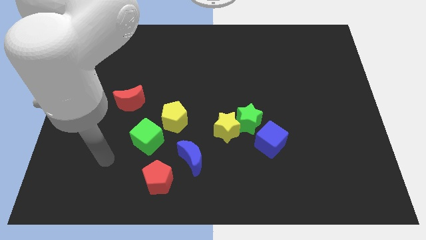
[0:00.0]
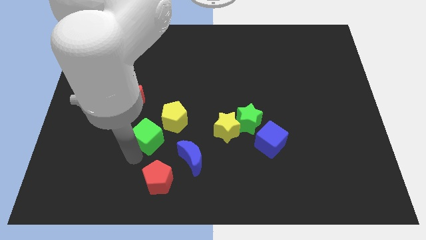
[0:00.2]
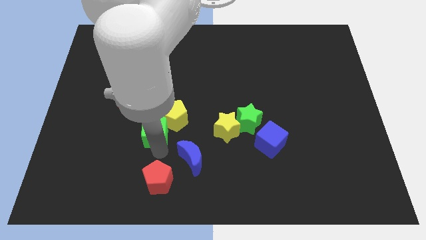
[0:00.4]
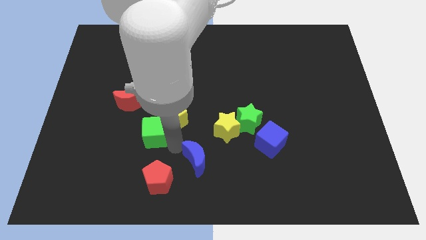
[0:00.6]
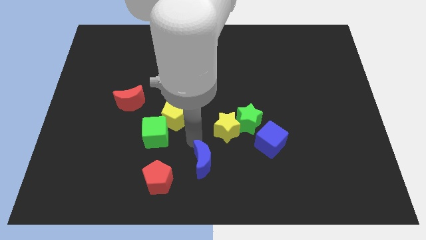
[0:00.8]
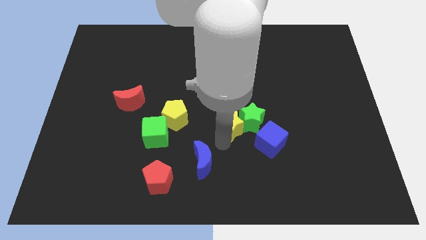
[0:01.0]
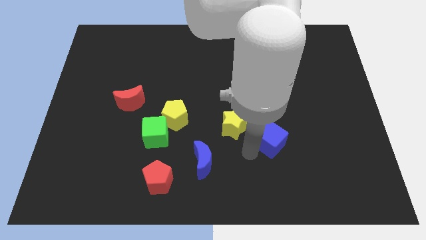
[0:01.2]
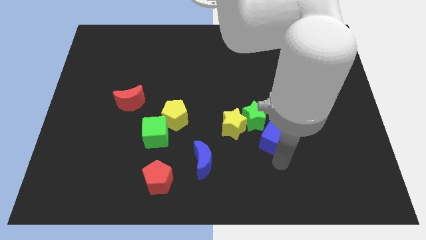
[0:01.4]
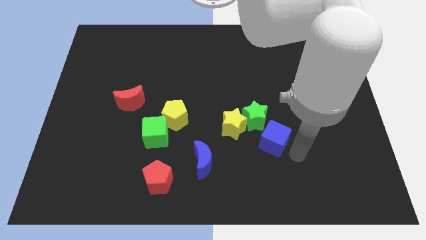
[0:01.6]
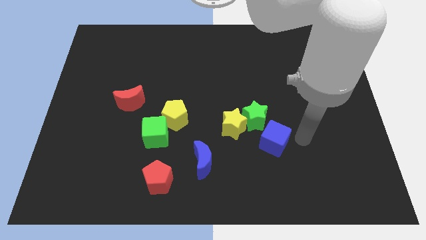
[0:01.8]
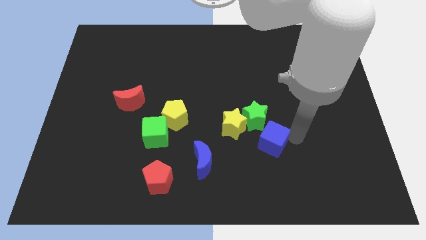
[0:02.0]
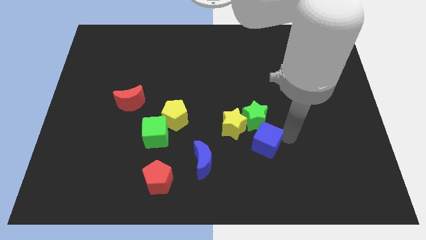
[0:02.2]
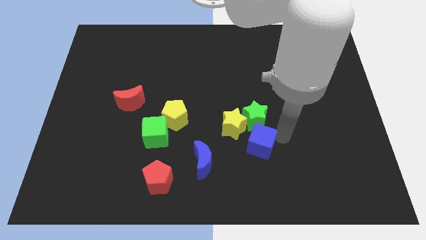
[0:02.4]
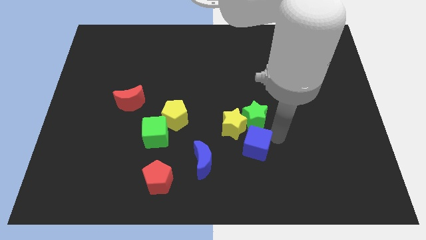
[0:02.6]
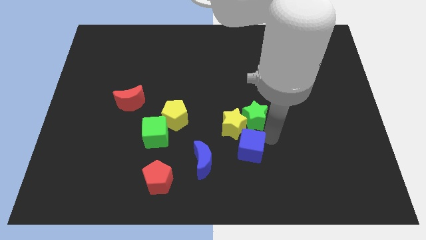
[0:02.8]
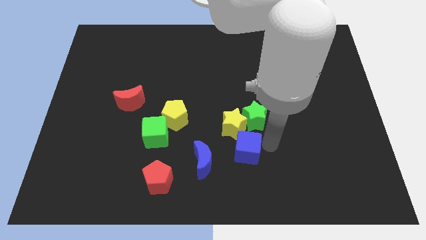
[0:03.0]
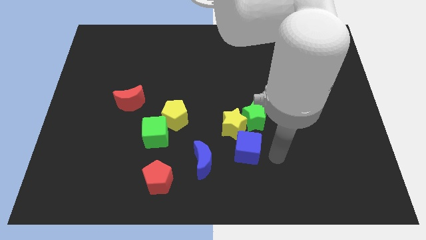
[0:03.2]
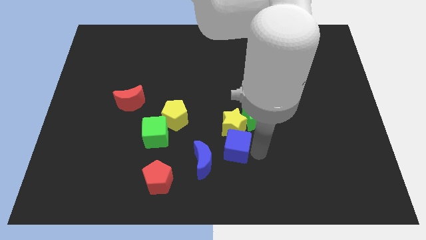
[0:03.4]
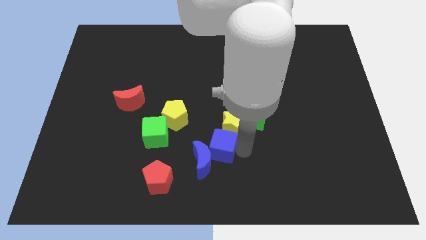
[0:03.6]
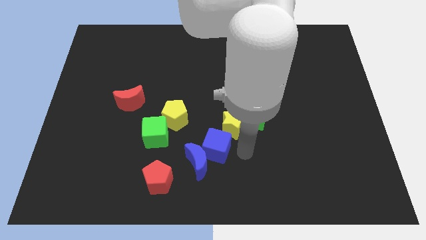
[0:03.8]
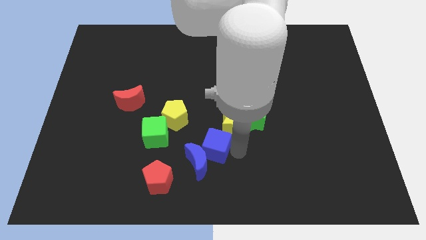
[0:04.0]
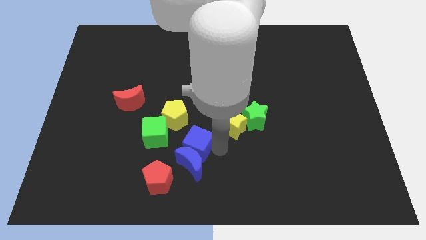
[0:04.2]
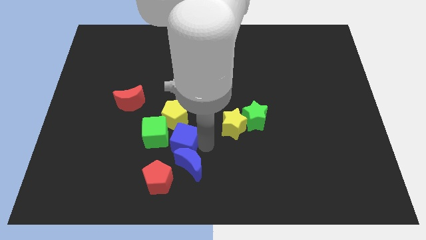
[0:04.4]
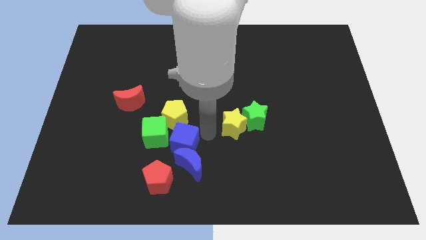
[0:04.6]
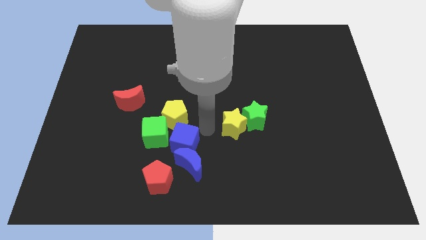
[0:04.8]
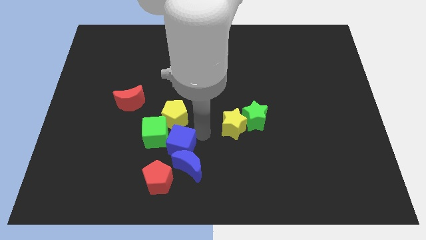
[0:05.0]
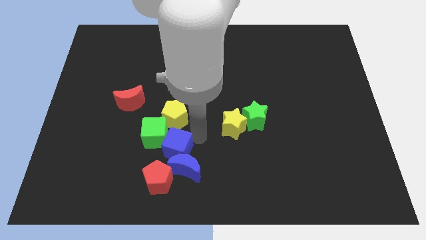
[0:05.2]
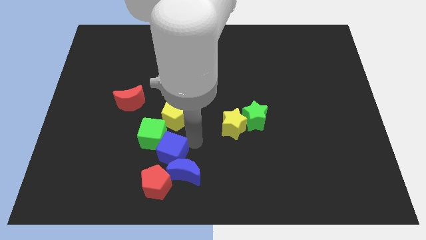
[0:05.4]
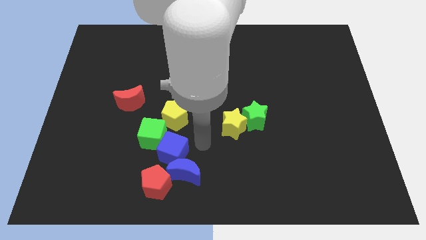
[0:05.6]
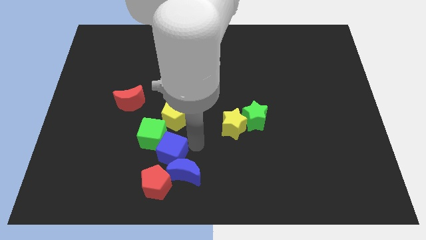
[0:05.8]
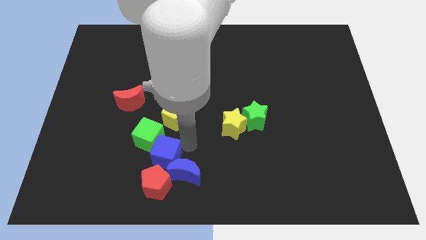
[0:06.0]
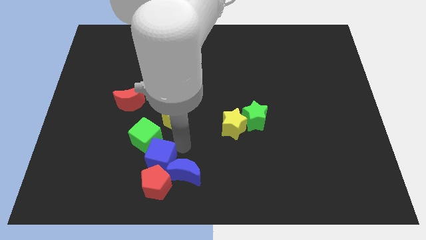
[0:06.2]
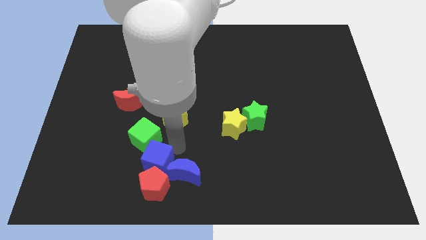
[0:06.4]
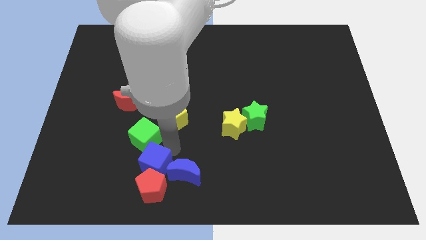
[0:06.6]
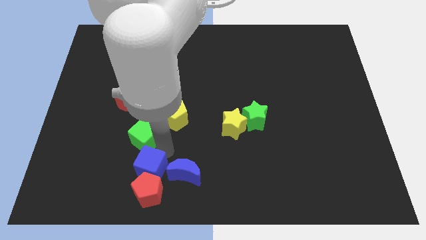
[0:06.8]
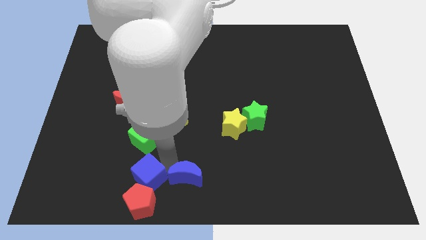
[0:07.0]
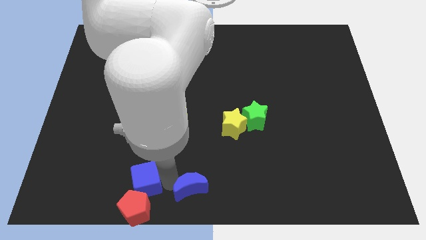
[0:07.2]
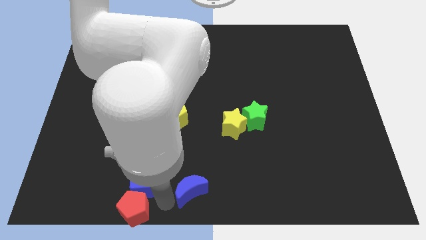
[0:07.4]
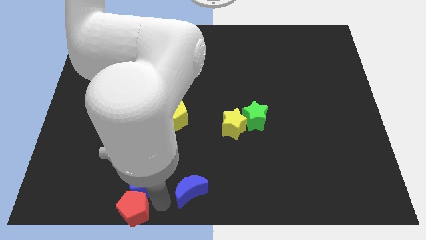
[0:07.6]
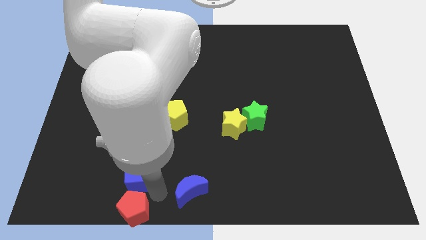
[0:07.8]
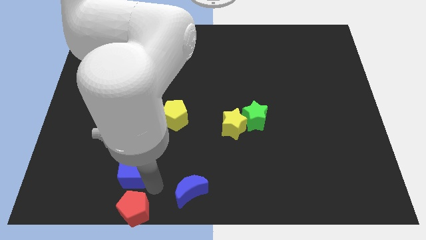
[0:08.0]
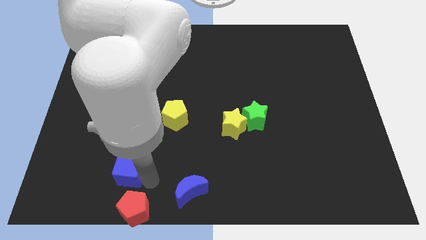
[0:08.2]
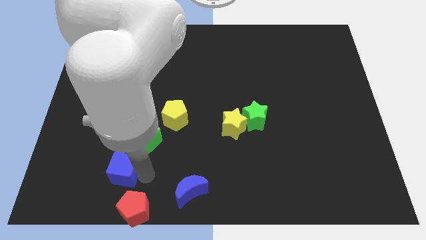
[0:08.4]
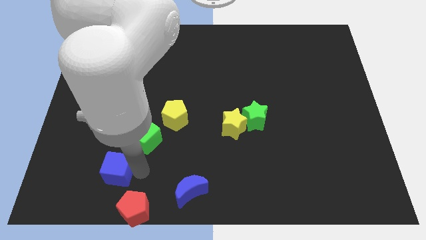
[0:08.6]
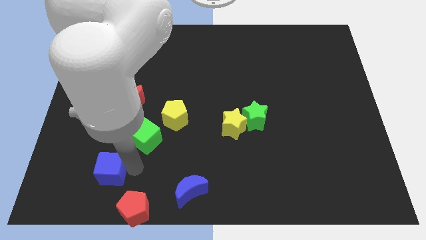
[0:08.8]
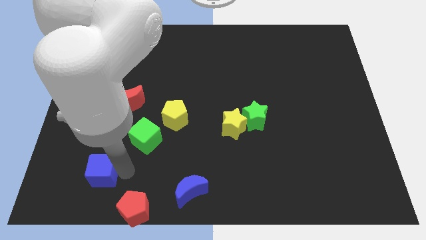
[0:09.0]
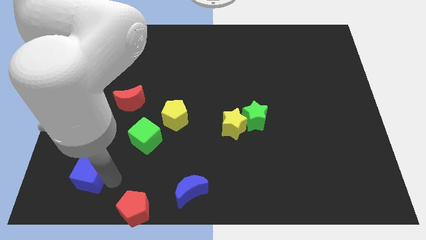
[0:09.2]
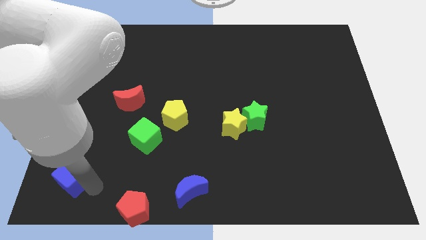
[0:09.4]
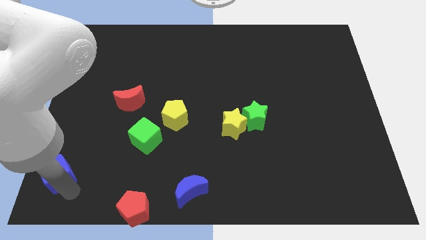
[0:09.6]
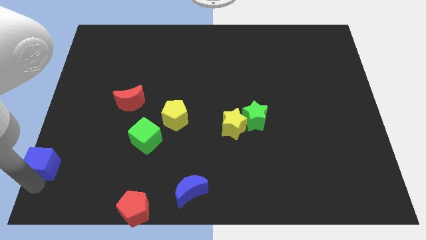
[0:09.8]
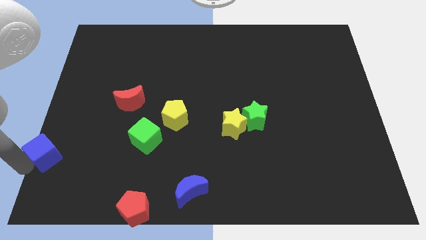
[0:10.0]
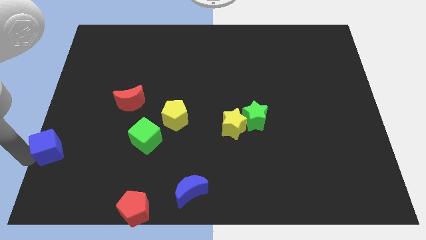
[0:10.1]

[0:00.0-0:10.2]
push the blue cube to the center left
